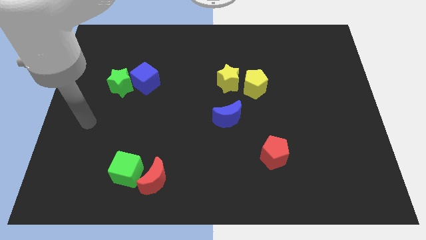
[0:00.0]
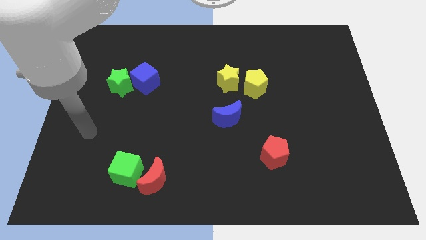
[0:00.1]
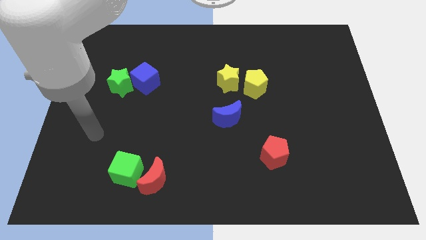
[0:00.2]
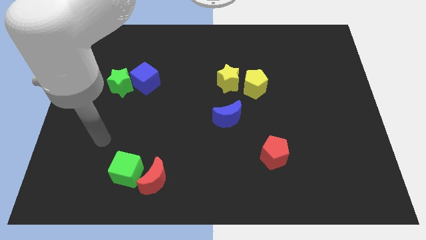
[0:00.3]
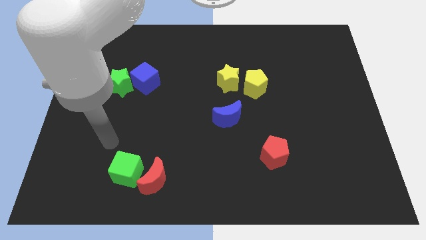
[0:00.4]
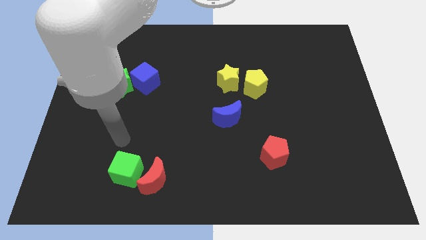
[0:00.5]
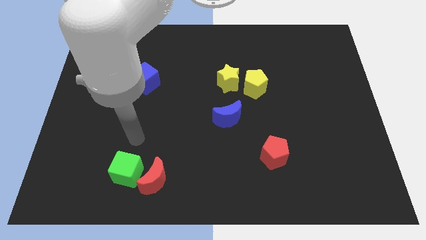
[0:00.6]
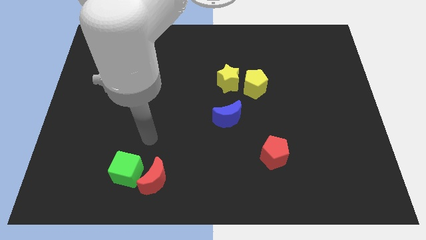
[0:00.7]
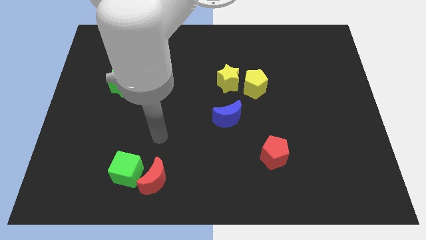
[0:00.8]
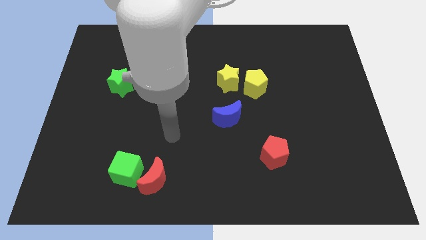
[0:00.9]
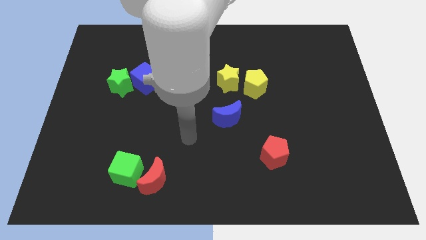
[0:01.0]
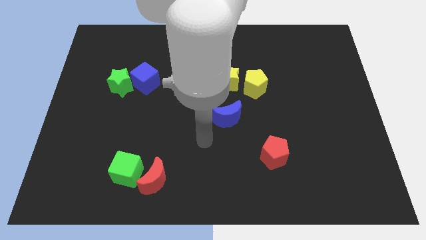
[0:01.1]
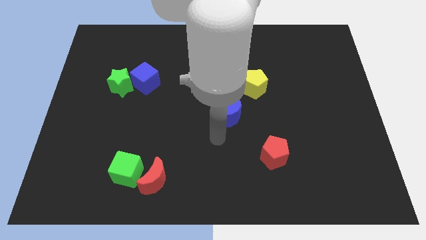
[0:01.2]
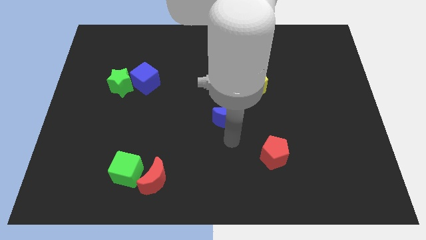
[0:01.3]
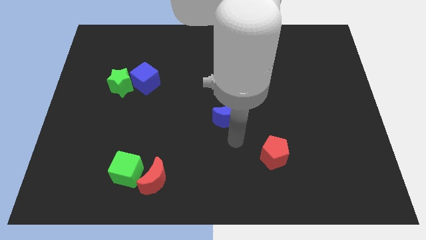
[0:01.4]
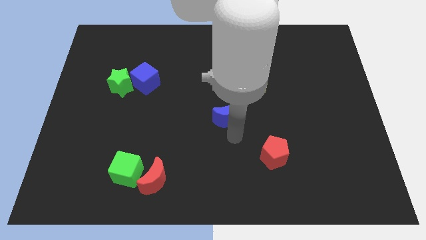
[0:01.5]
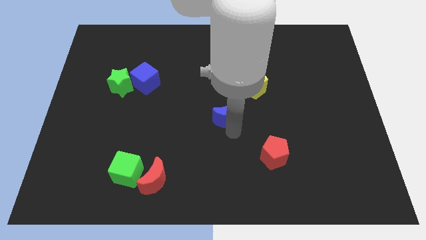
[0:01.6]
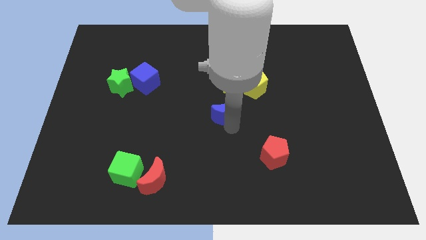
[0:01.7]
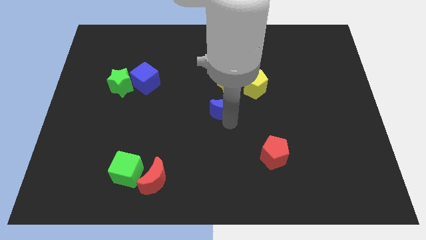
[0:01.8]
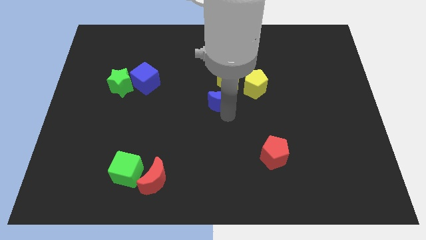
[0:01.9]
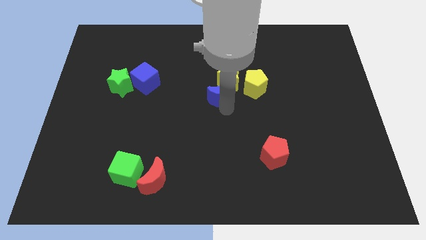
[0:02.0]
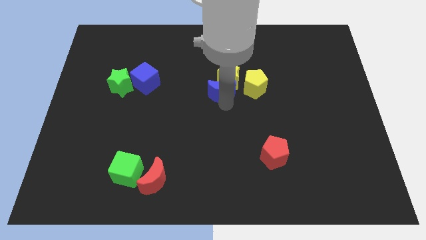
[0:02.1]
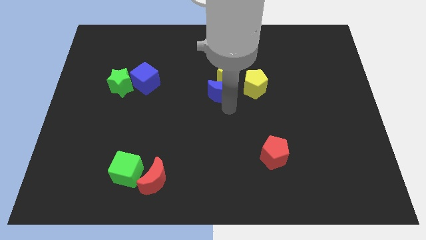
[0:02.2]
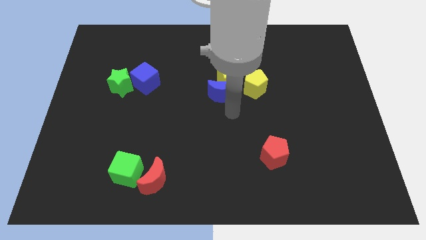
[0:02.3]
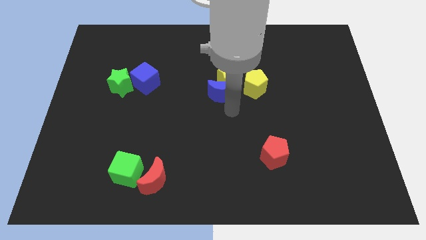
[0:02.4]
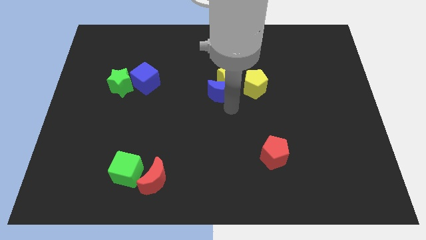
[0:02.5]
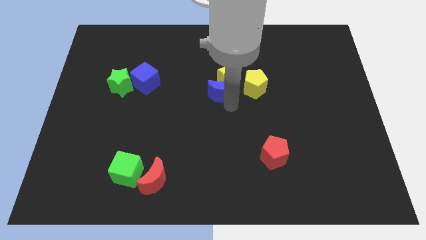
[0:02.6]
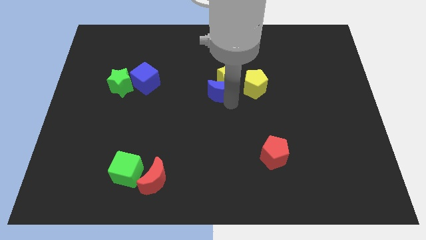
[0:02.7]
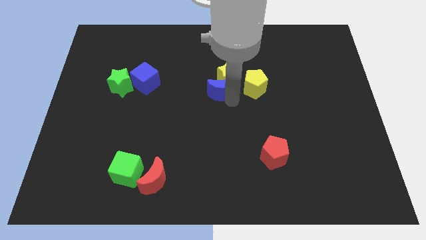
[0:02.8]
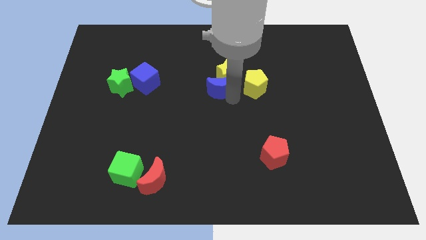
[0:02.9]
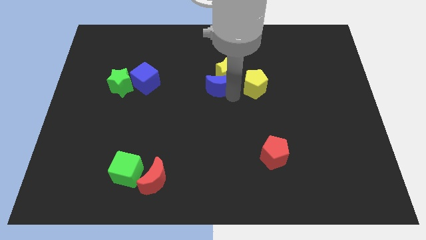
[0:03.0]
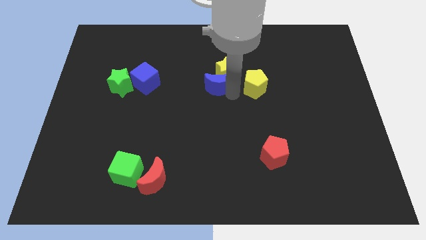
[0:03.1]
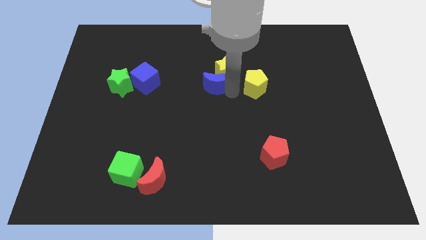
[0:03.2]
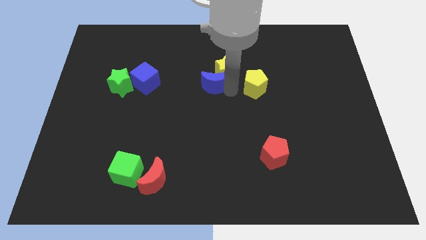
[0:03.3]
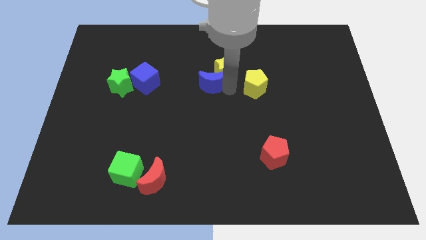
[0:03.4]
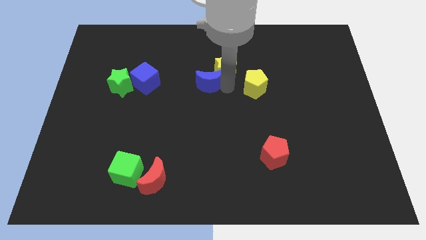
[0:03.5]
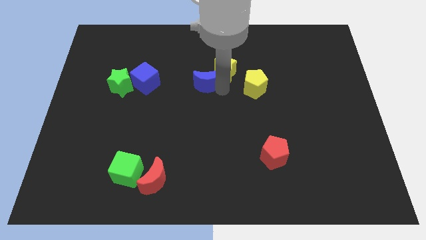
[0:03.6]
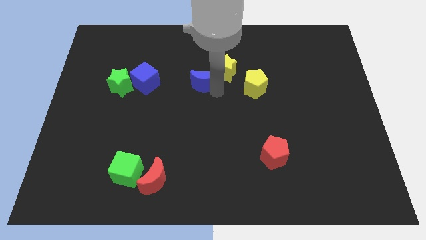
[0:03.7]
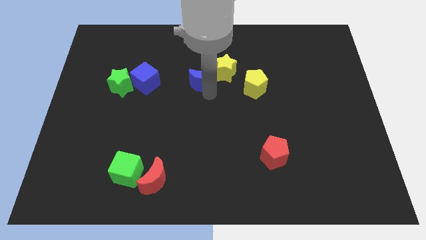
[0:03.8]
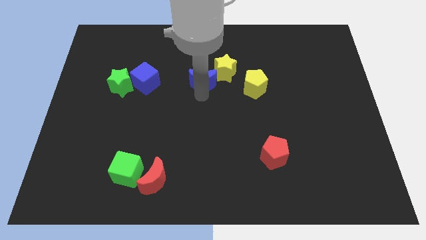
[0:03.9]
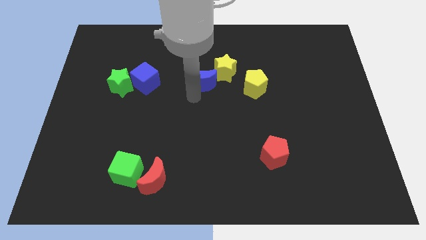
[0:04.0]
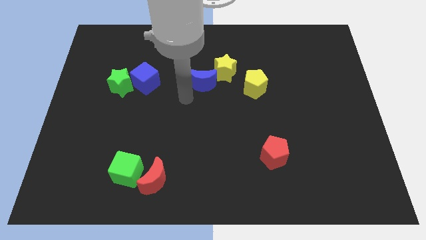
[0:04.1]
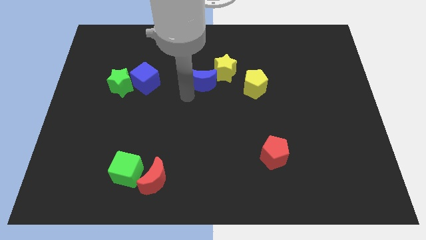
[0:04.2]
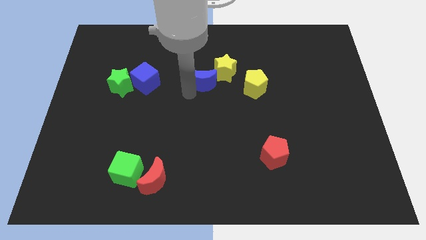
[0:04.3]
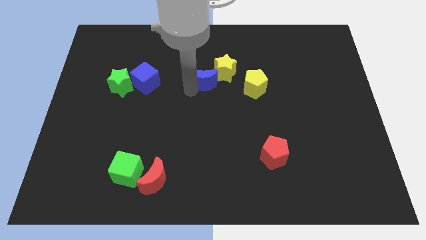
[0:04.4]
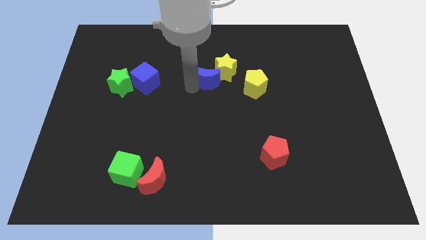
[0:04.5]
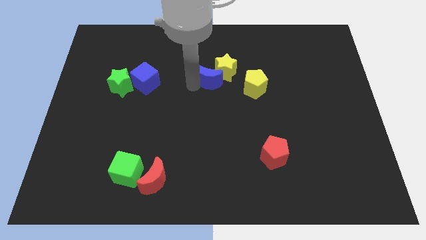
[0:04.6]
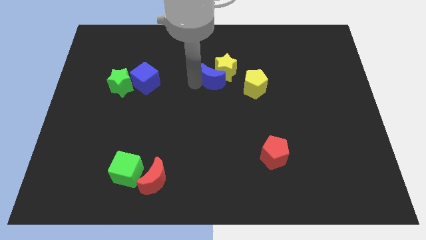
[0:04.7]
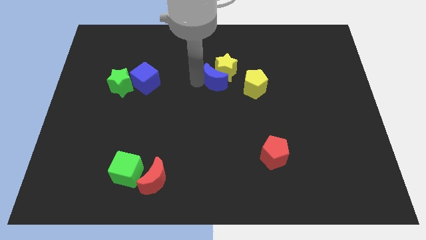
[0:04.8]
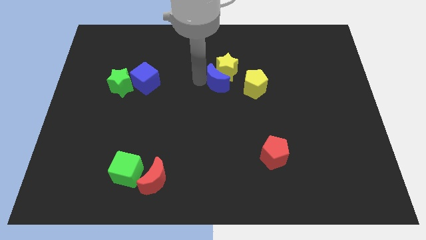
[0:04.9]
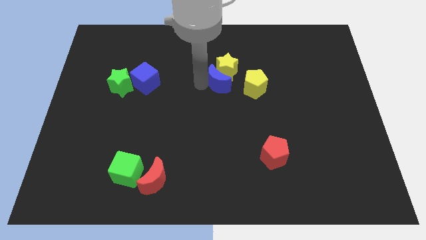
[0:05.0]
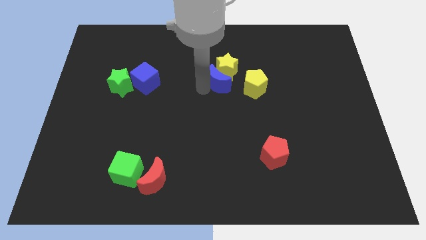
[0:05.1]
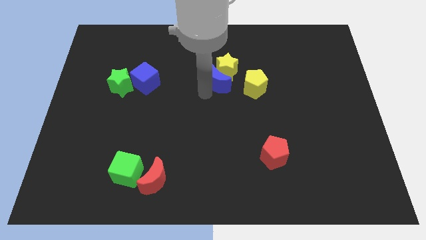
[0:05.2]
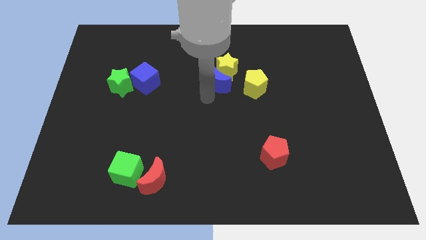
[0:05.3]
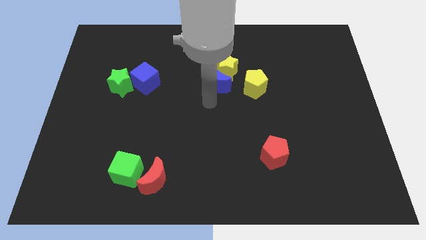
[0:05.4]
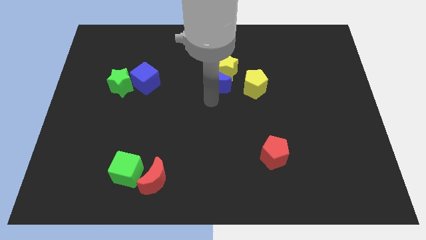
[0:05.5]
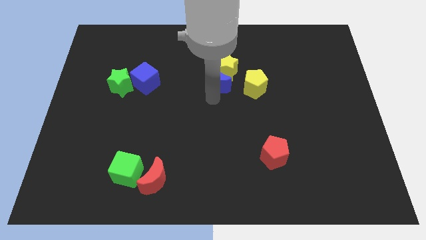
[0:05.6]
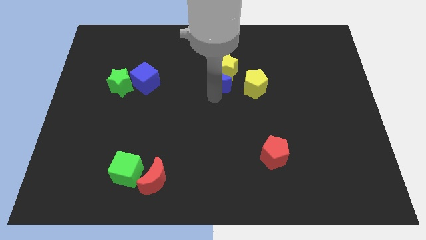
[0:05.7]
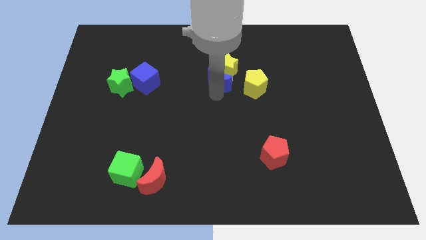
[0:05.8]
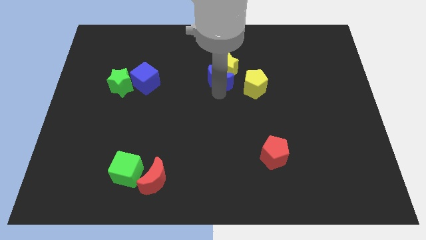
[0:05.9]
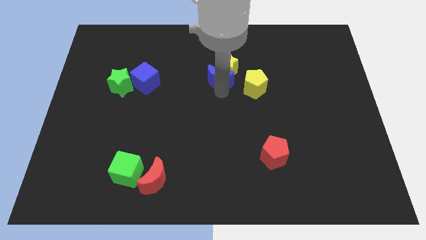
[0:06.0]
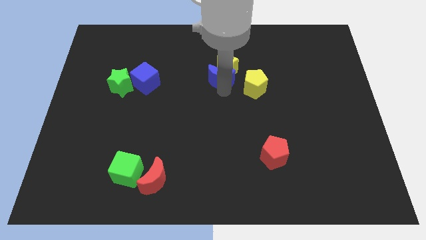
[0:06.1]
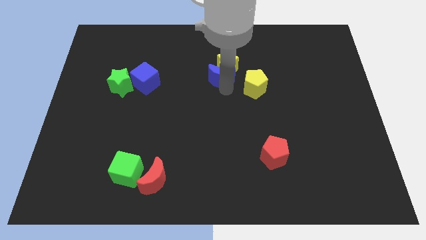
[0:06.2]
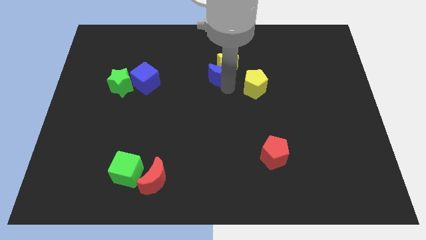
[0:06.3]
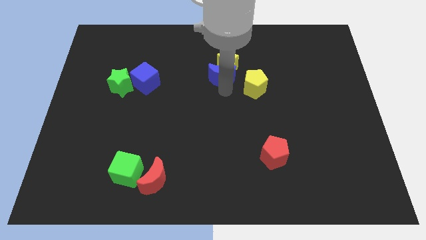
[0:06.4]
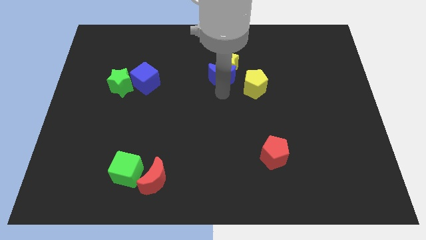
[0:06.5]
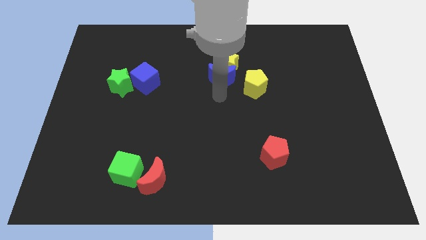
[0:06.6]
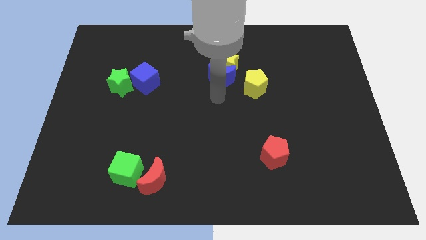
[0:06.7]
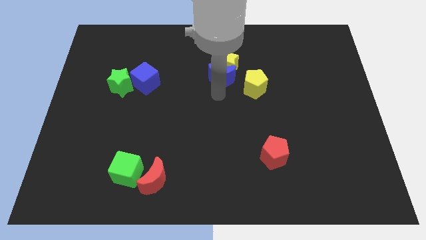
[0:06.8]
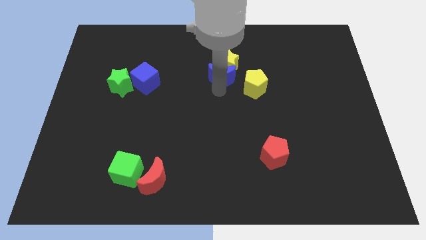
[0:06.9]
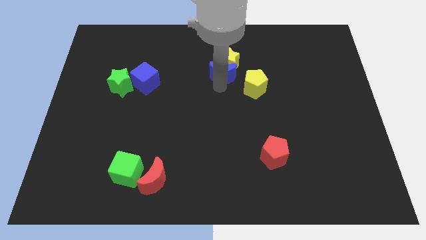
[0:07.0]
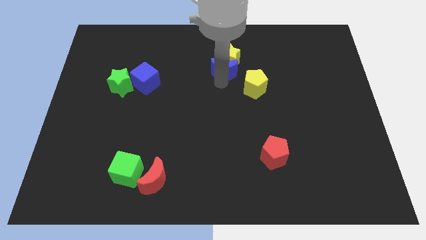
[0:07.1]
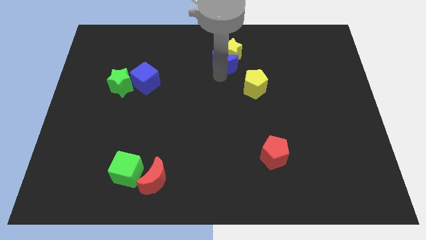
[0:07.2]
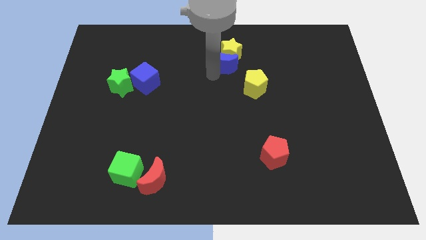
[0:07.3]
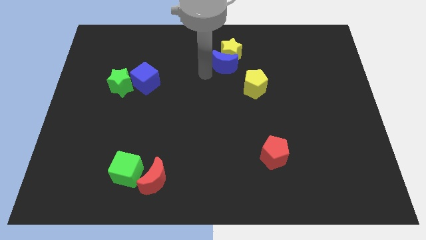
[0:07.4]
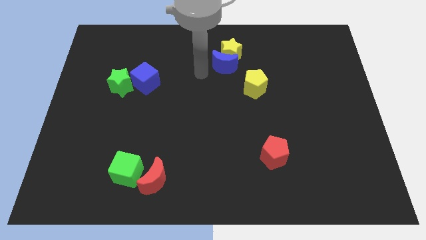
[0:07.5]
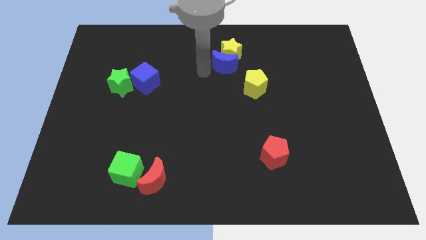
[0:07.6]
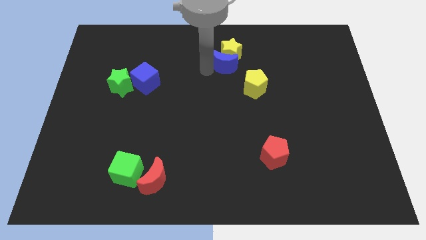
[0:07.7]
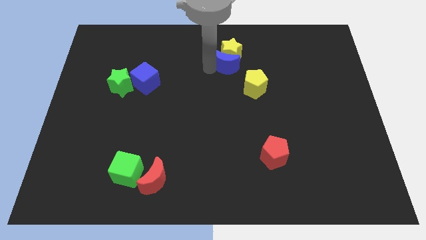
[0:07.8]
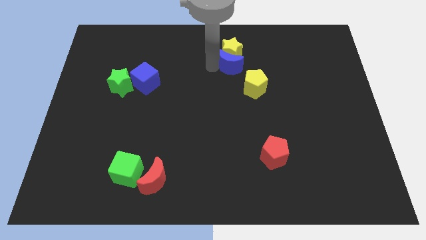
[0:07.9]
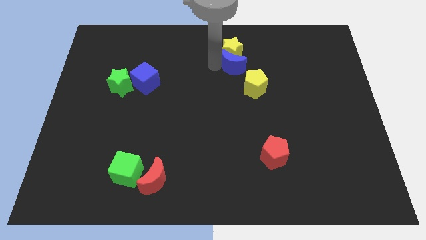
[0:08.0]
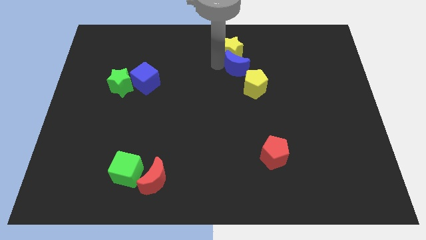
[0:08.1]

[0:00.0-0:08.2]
push the blue moon to the top of the yellow pentagon
